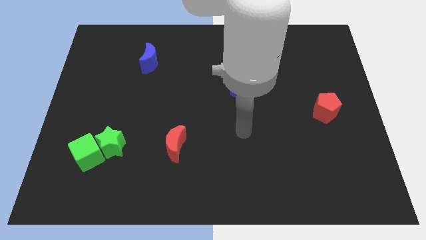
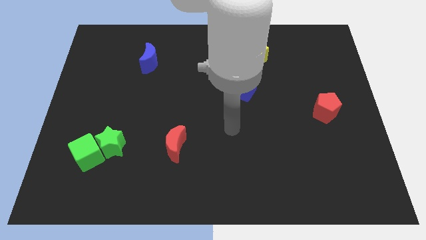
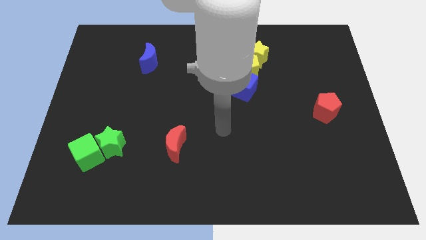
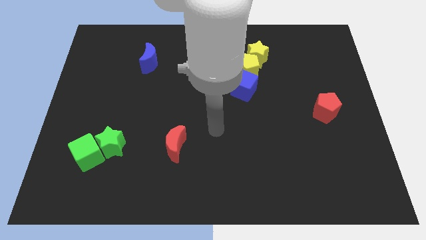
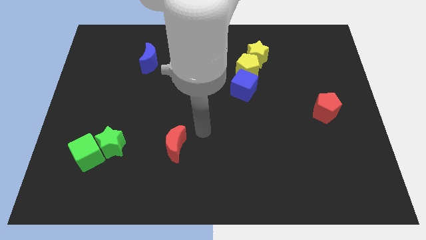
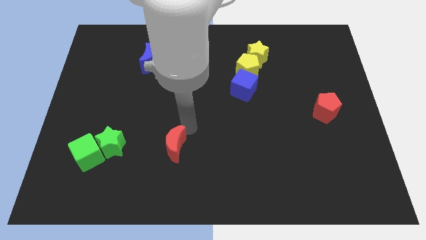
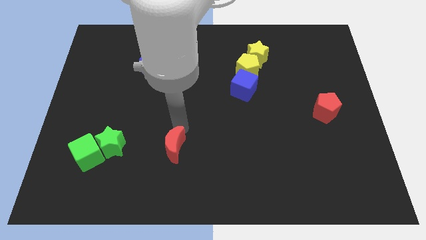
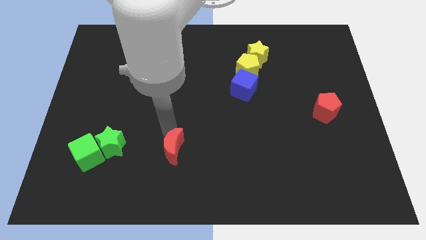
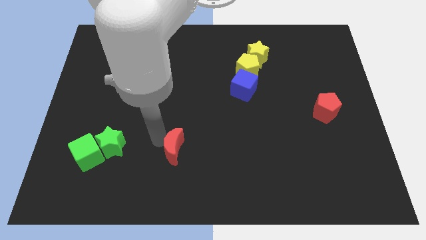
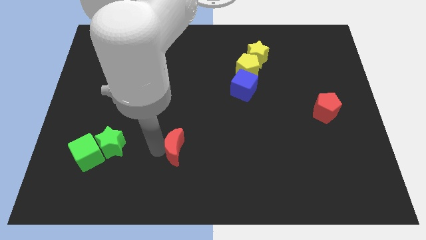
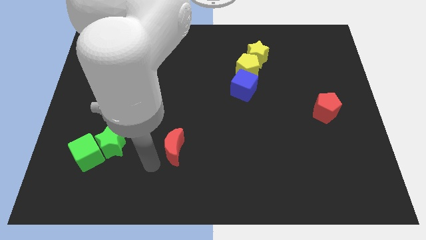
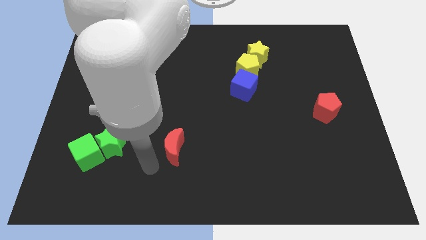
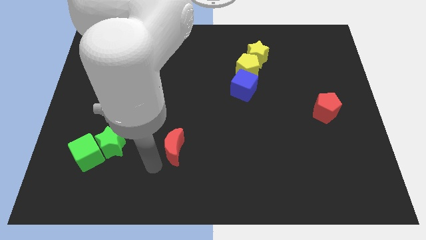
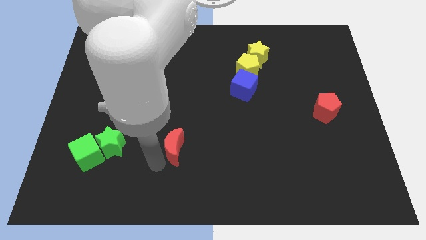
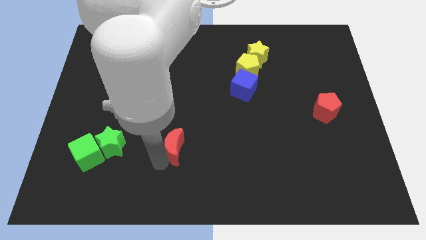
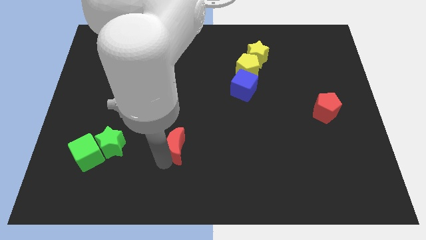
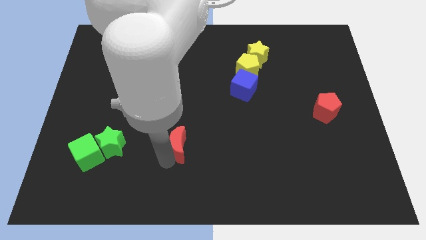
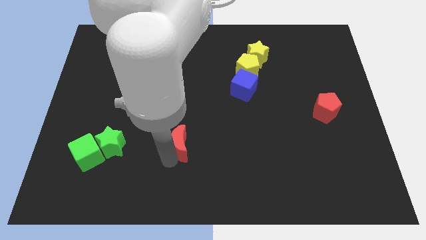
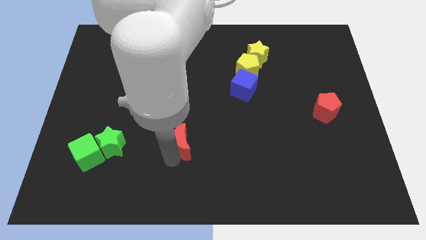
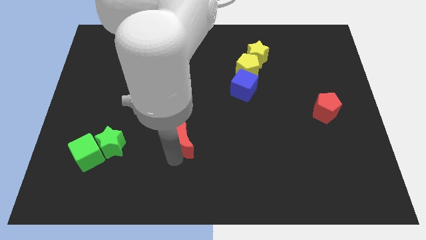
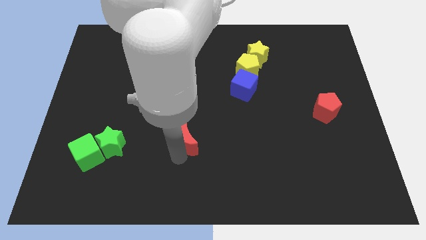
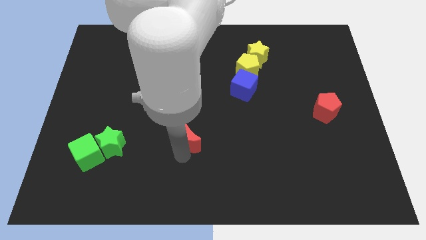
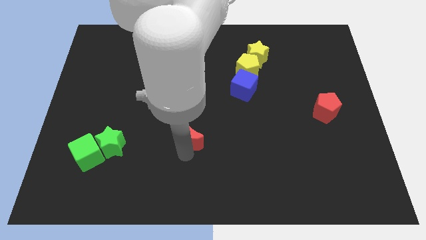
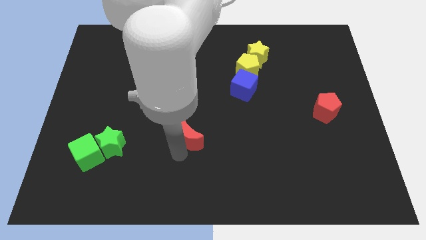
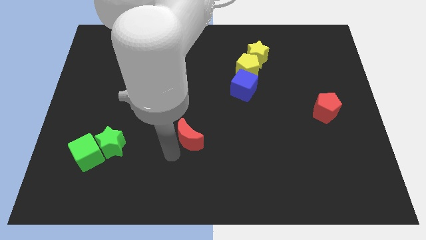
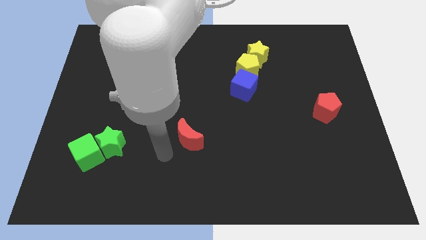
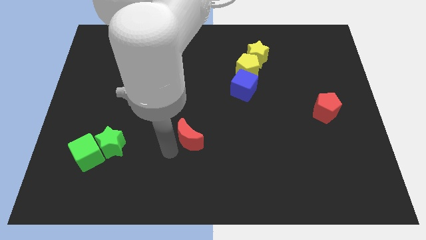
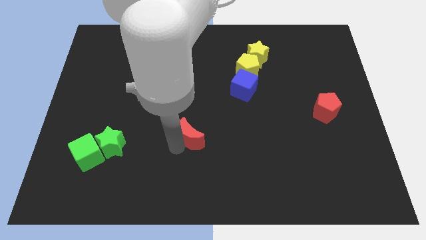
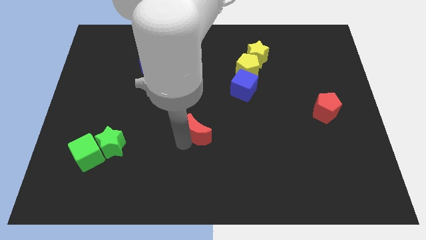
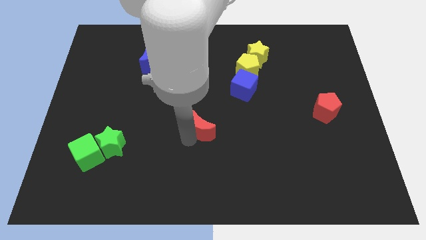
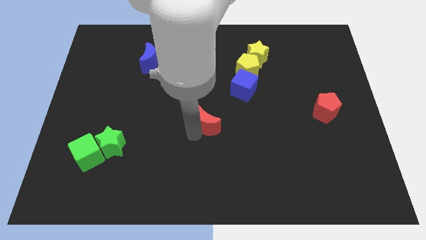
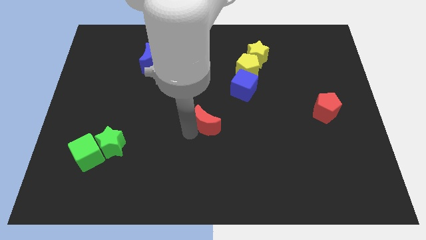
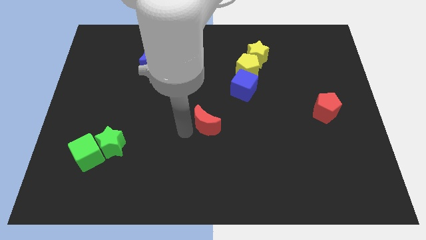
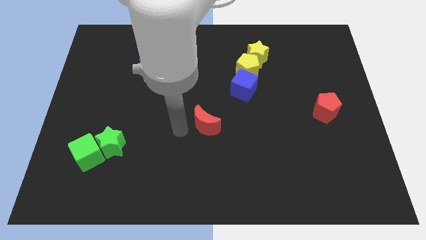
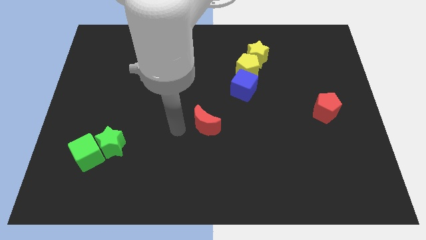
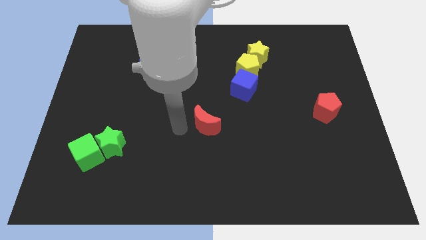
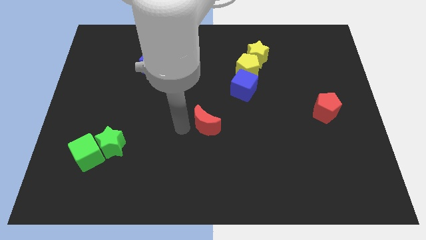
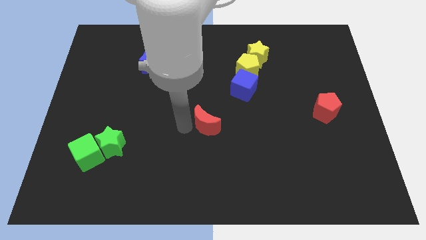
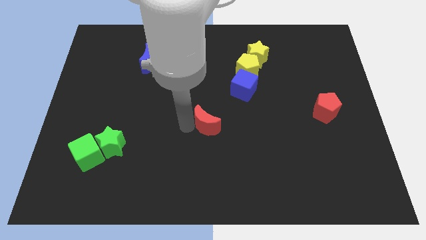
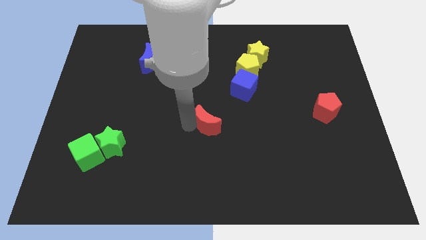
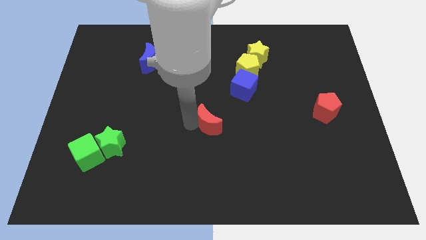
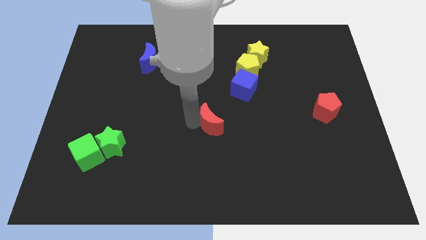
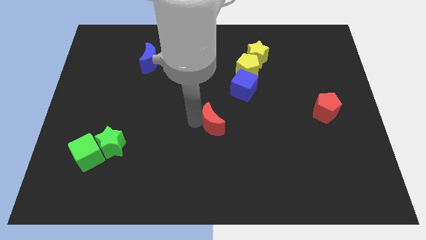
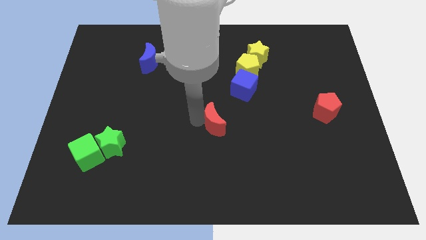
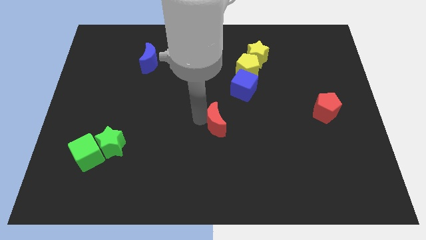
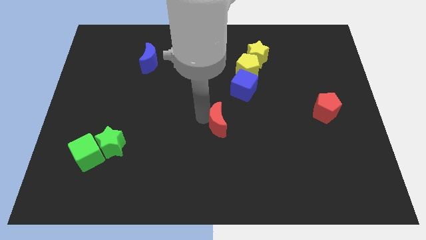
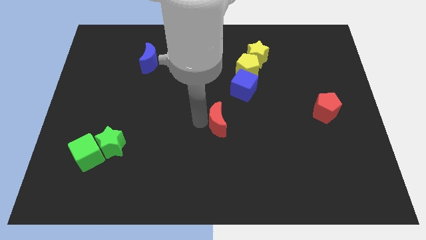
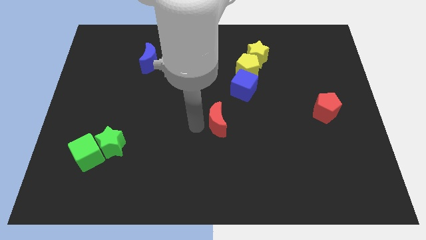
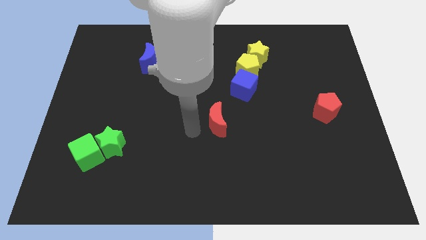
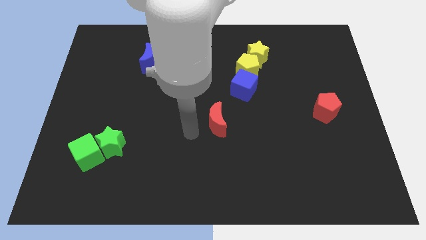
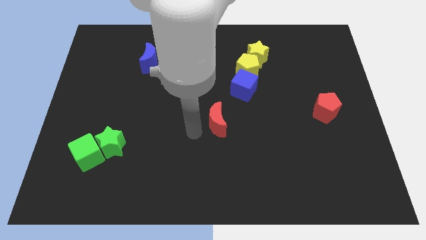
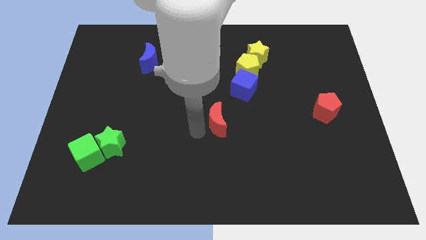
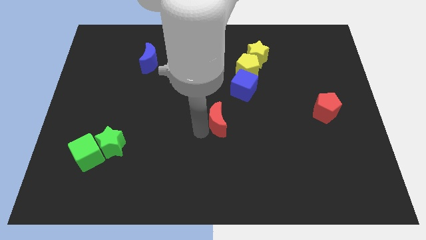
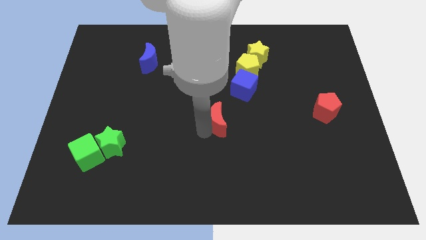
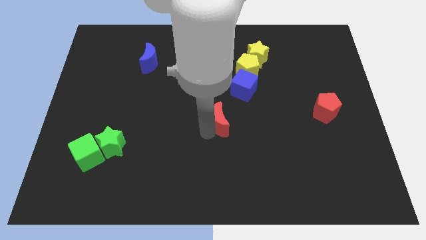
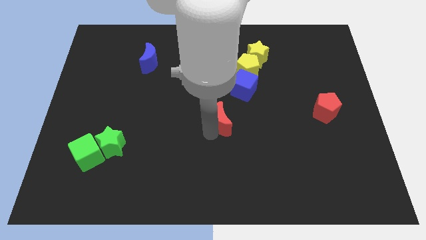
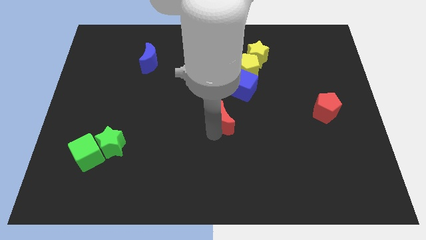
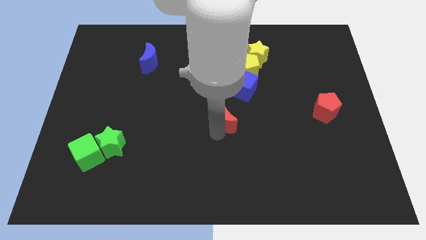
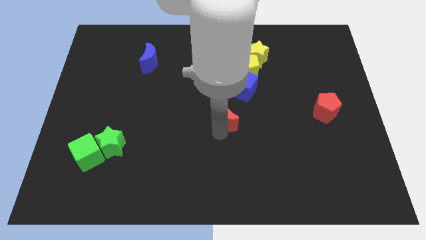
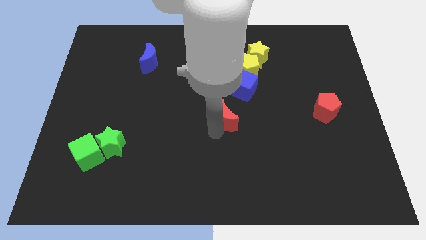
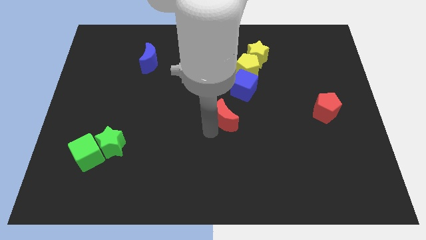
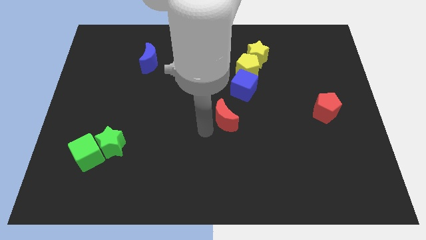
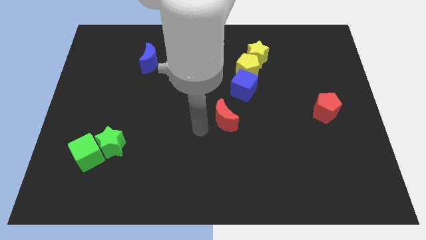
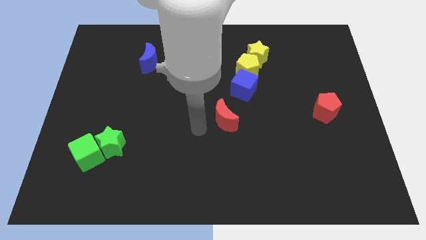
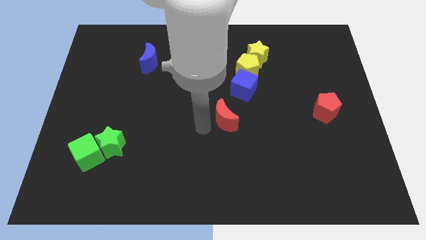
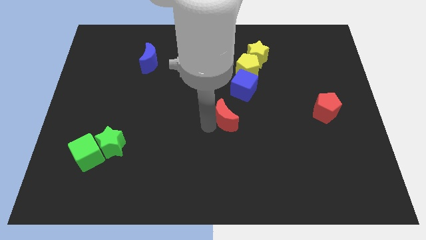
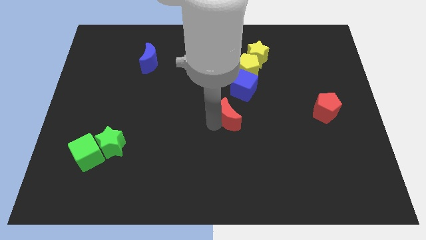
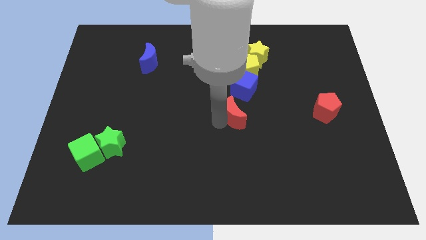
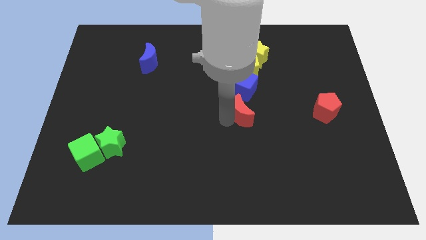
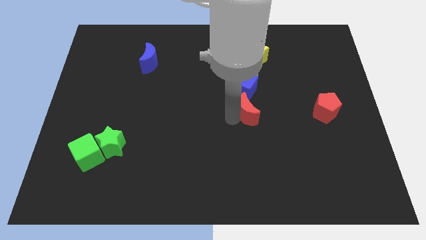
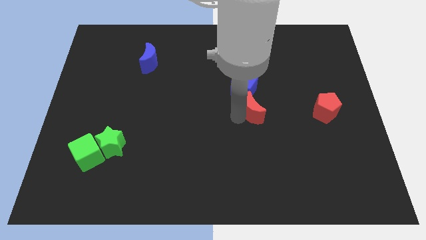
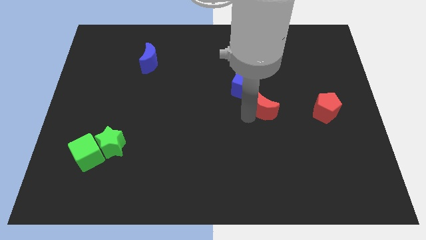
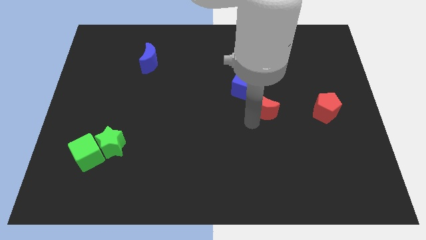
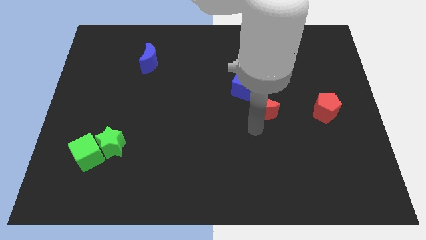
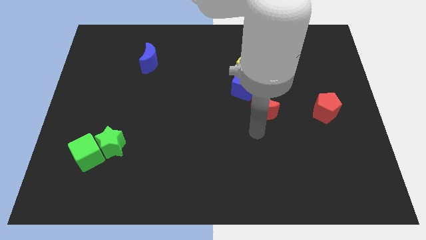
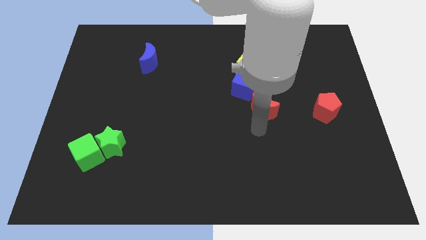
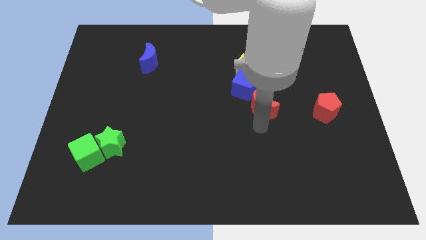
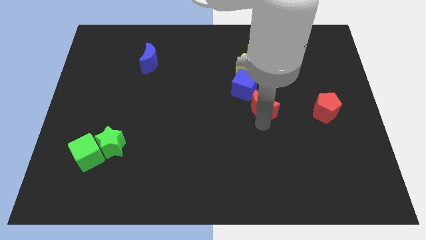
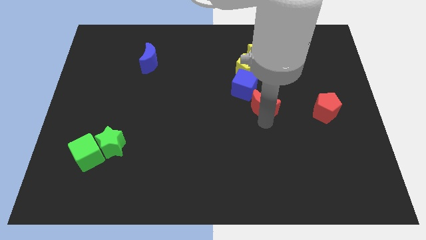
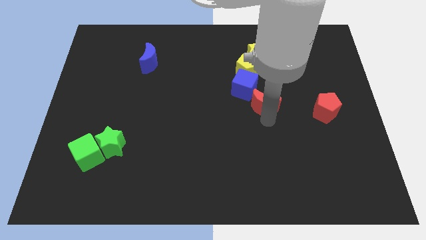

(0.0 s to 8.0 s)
push the red moon up and right

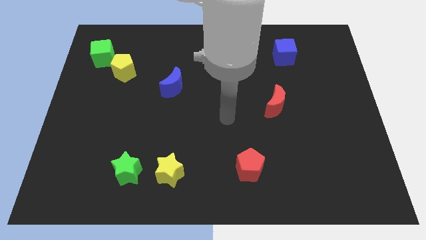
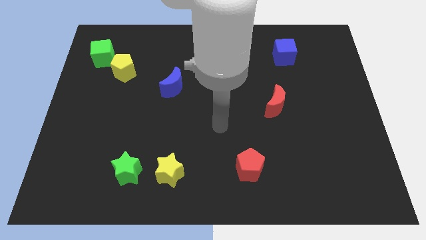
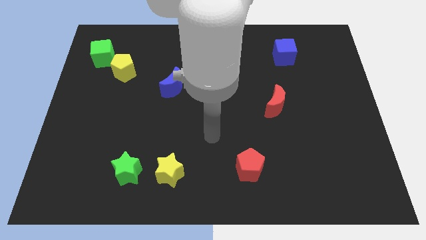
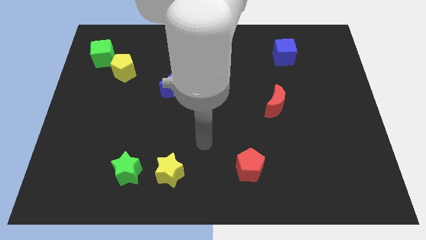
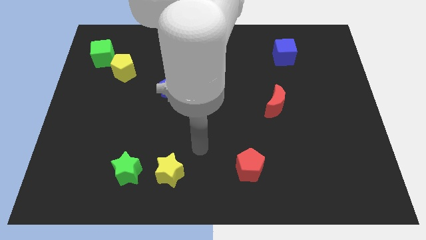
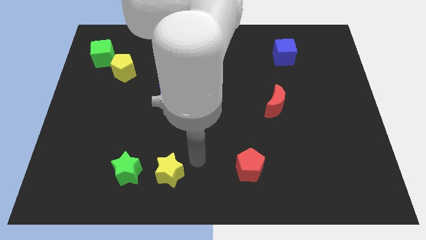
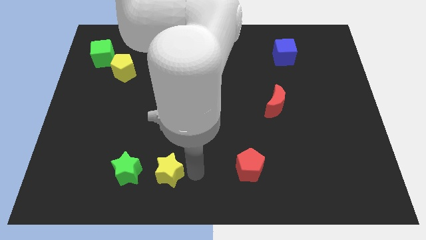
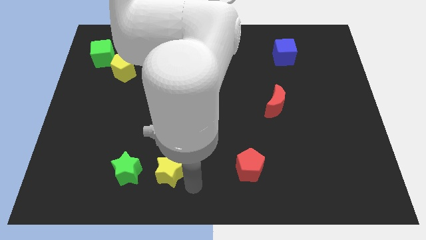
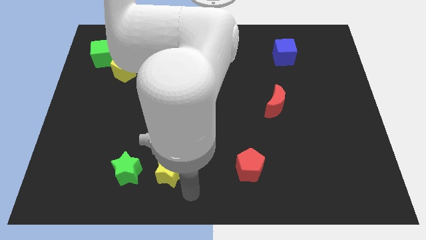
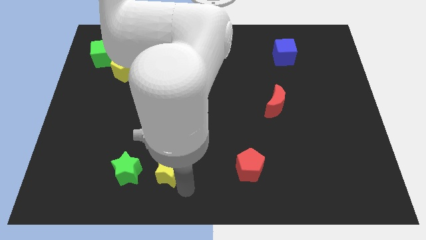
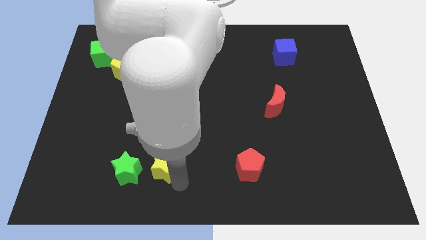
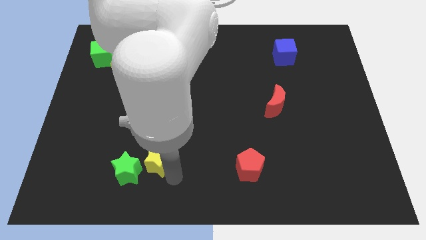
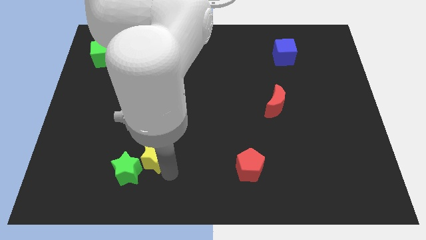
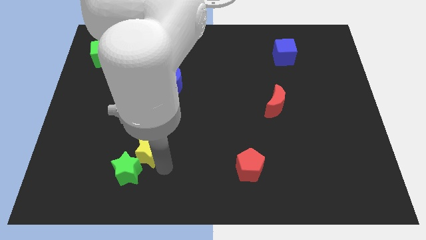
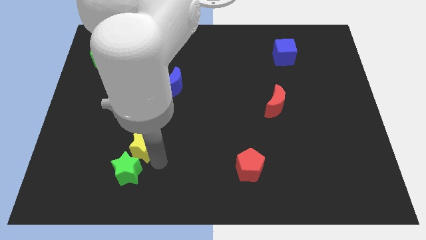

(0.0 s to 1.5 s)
push the yellow star upwards and then to the left a bit
